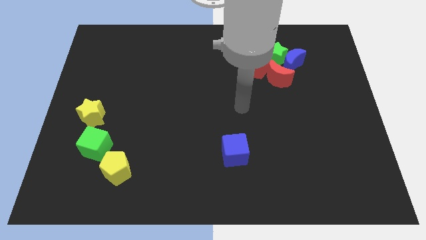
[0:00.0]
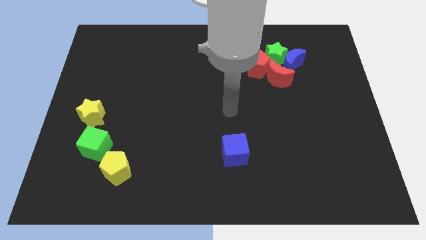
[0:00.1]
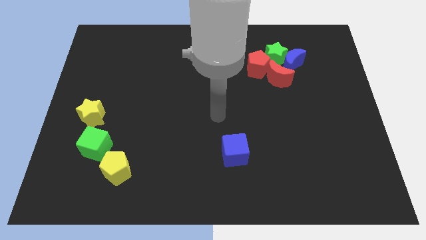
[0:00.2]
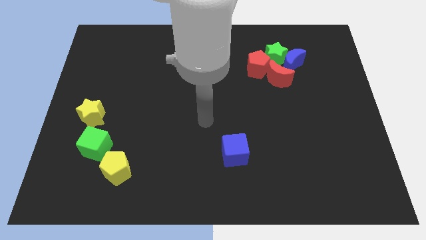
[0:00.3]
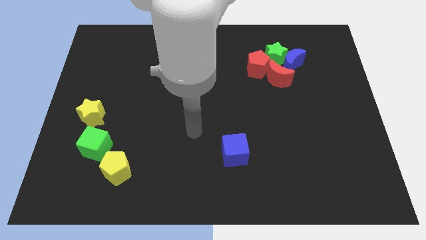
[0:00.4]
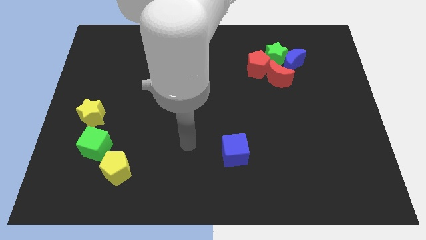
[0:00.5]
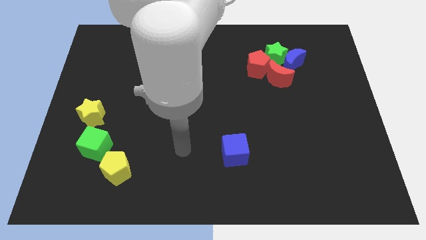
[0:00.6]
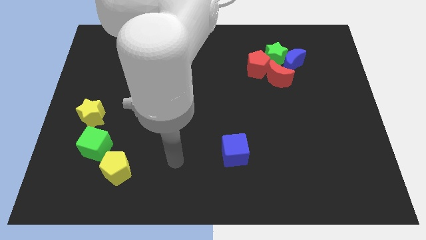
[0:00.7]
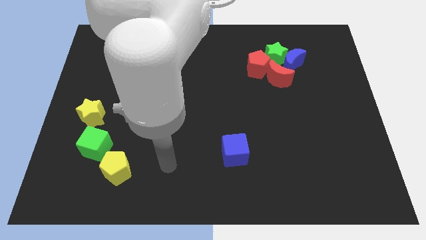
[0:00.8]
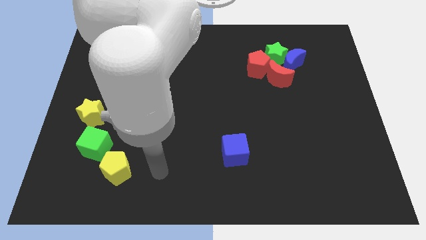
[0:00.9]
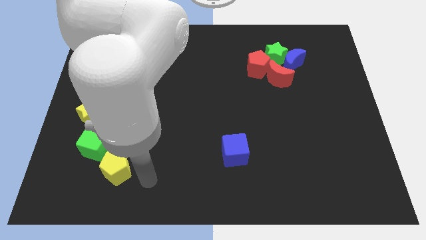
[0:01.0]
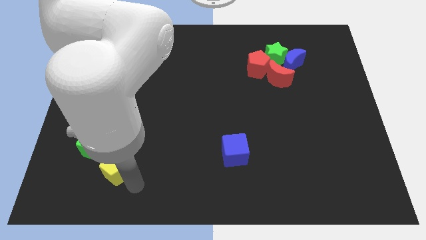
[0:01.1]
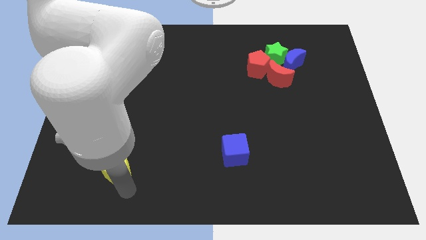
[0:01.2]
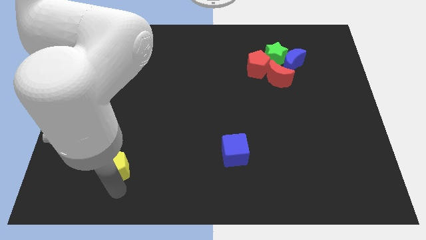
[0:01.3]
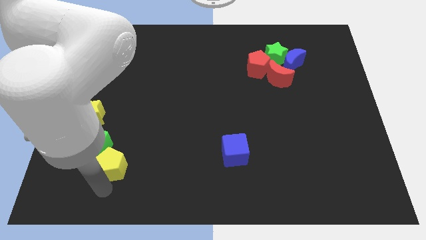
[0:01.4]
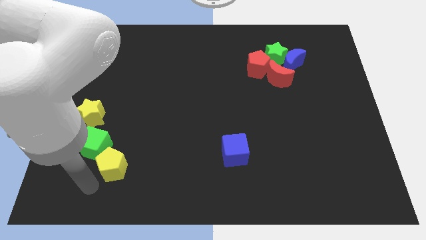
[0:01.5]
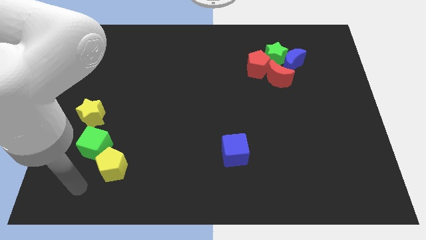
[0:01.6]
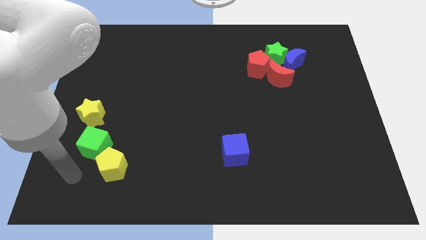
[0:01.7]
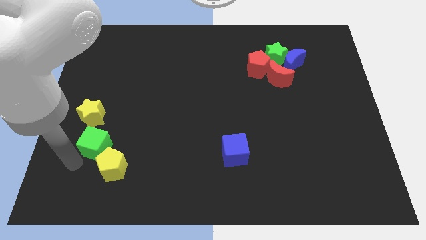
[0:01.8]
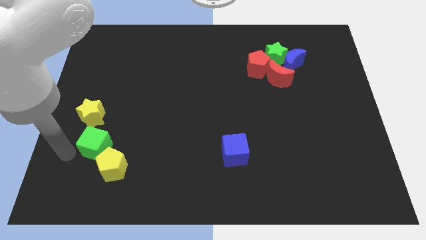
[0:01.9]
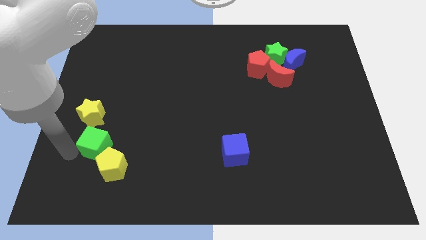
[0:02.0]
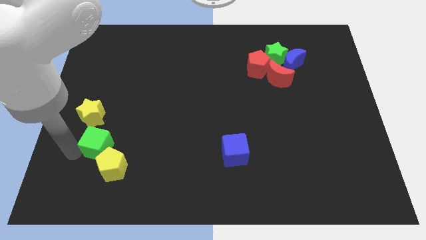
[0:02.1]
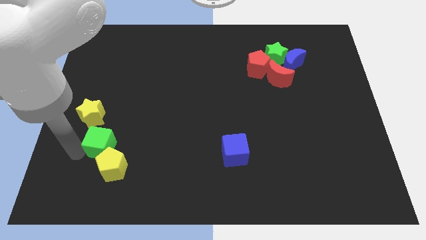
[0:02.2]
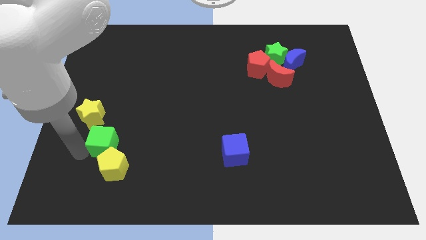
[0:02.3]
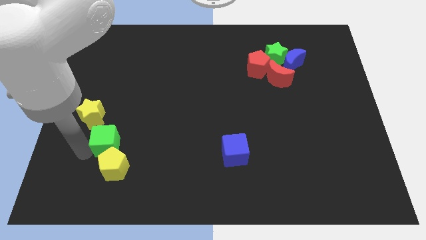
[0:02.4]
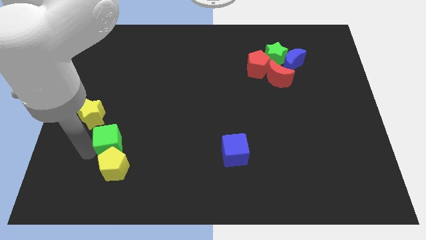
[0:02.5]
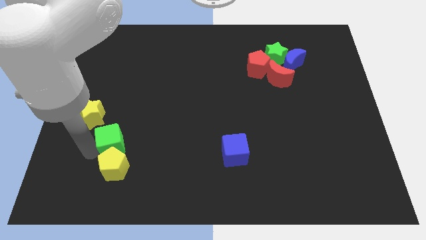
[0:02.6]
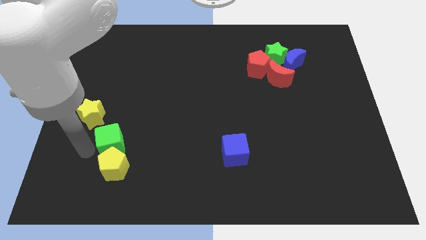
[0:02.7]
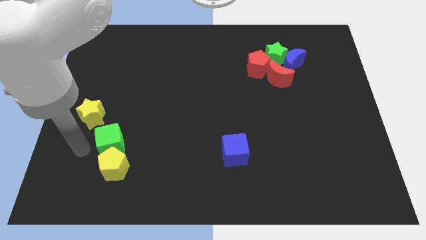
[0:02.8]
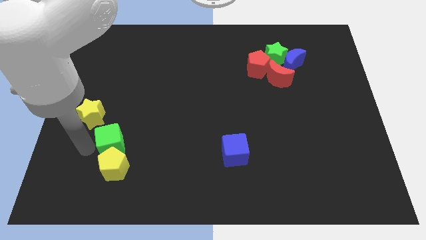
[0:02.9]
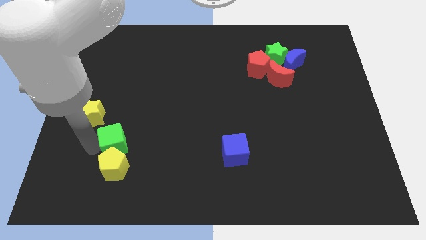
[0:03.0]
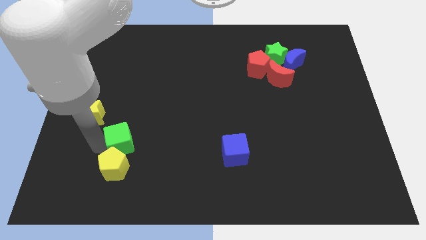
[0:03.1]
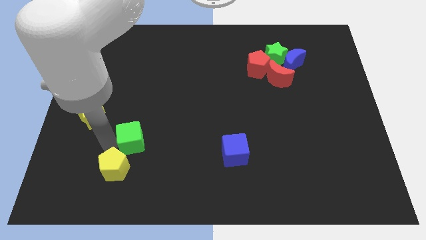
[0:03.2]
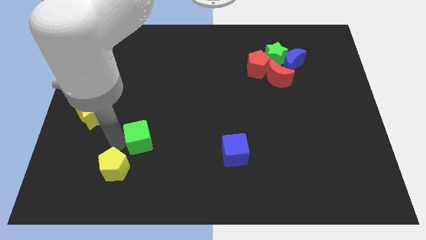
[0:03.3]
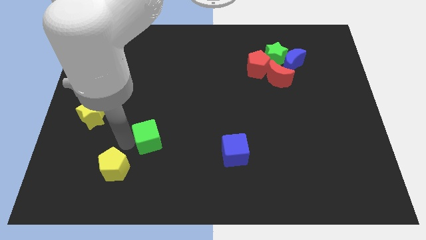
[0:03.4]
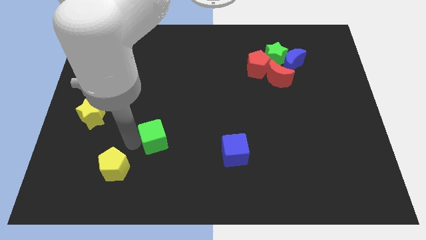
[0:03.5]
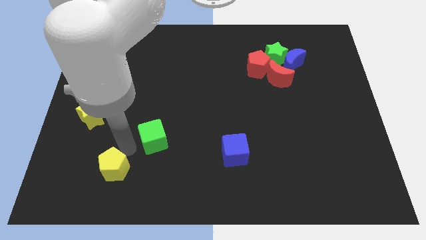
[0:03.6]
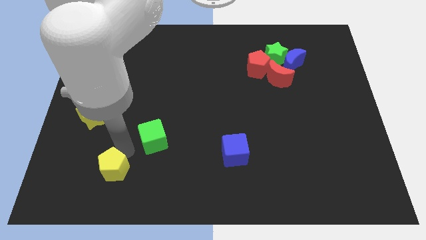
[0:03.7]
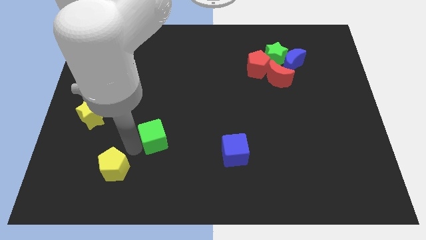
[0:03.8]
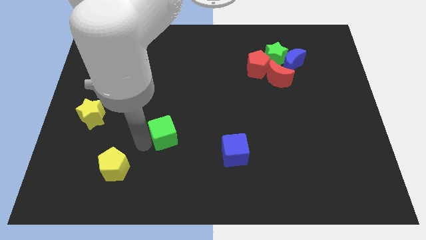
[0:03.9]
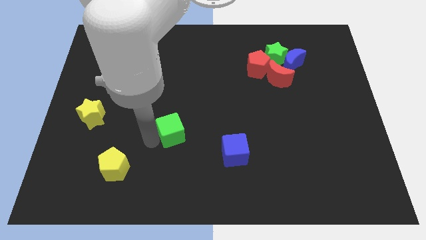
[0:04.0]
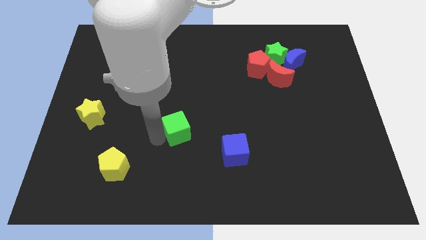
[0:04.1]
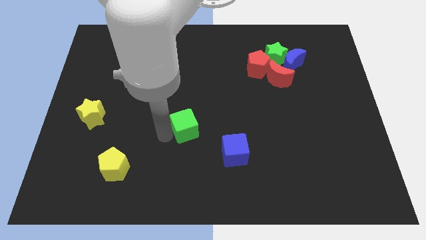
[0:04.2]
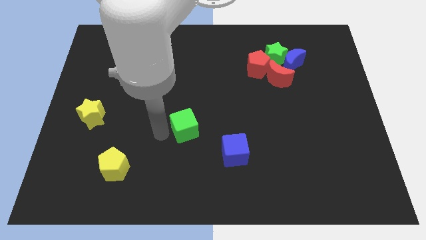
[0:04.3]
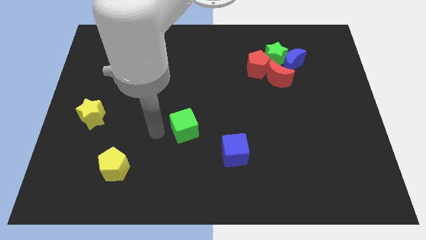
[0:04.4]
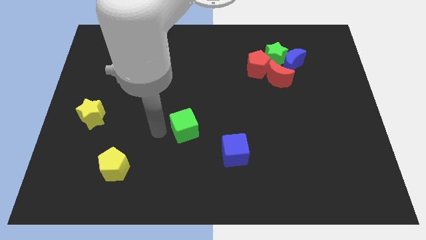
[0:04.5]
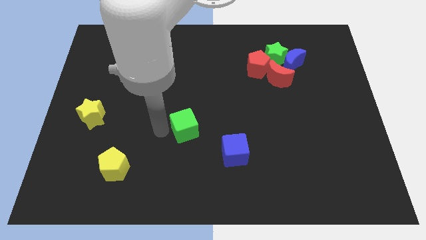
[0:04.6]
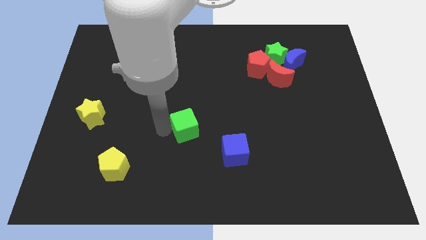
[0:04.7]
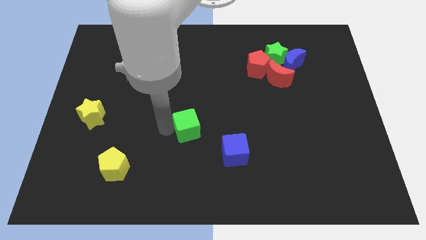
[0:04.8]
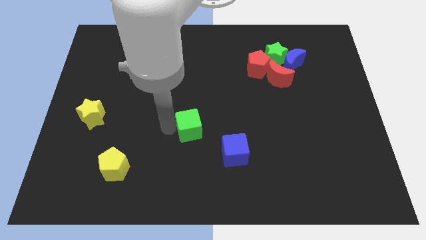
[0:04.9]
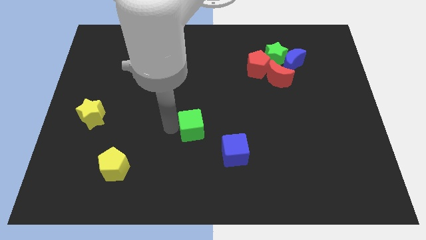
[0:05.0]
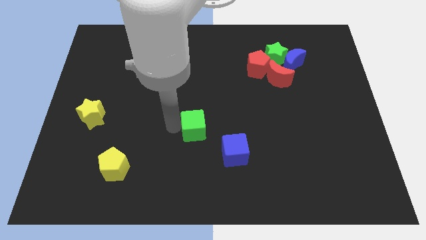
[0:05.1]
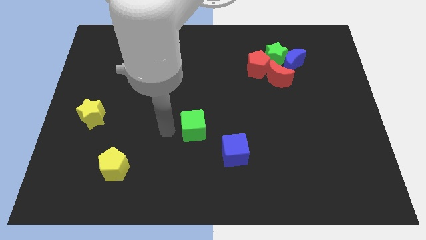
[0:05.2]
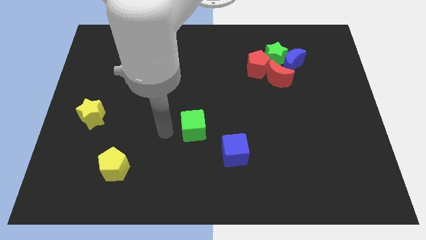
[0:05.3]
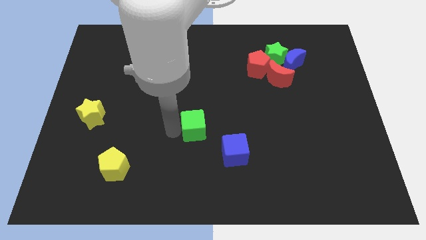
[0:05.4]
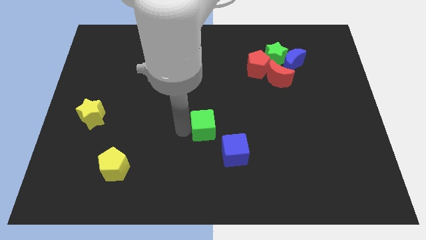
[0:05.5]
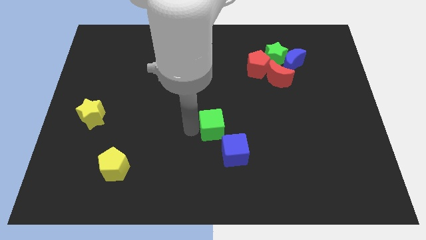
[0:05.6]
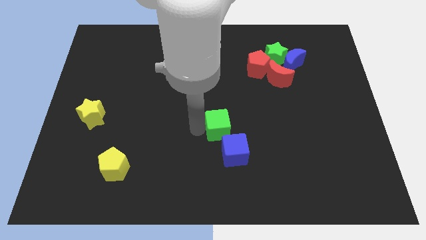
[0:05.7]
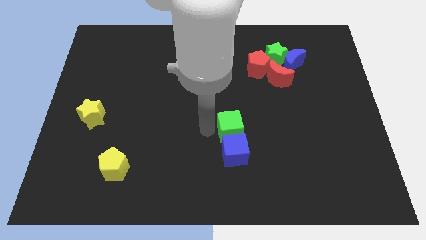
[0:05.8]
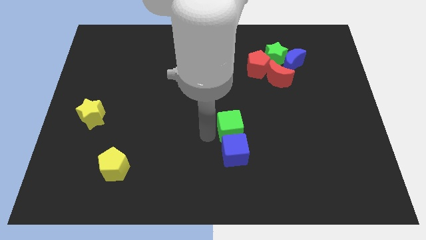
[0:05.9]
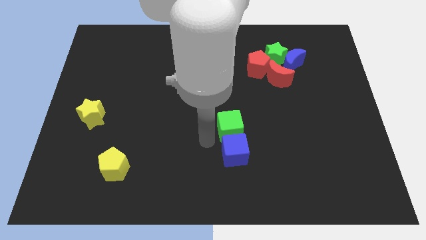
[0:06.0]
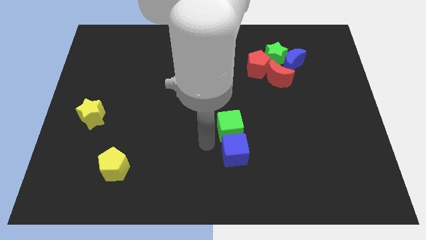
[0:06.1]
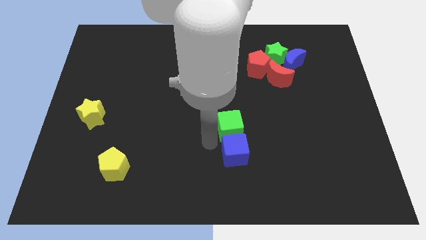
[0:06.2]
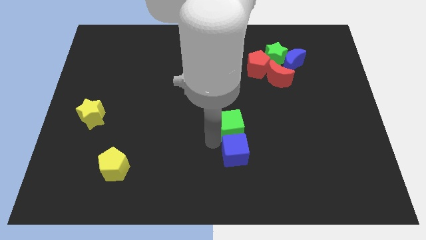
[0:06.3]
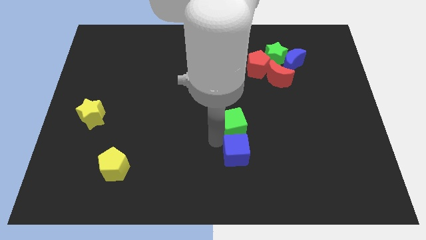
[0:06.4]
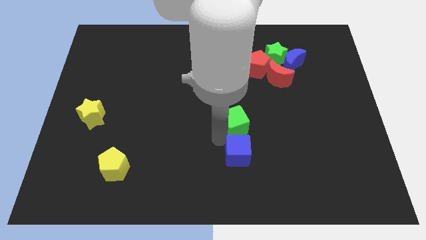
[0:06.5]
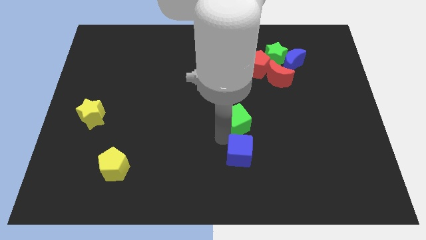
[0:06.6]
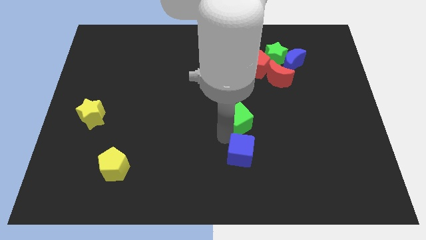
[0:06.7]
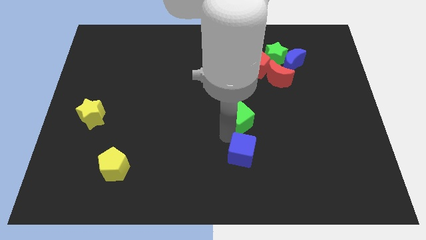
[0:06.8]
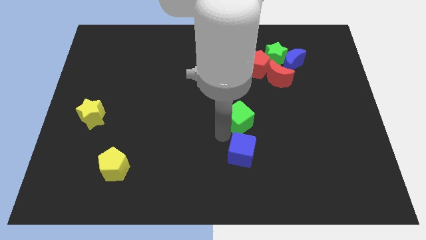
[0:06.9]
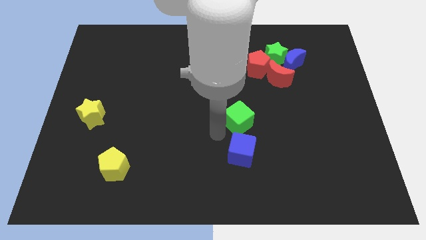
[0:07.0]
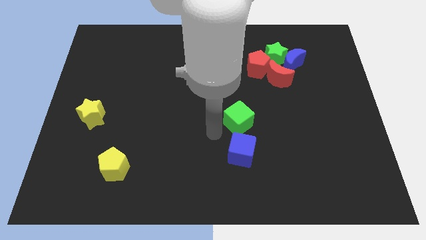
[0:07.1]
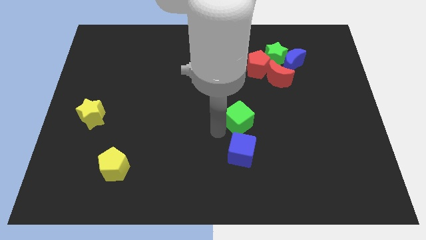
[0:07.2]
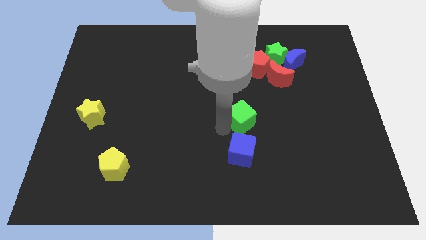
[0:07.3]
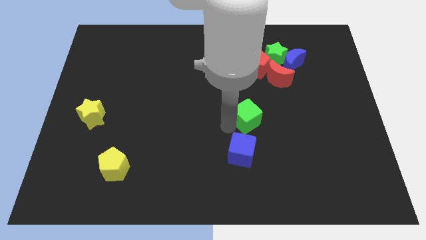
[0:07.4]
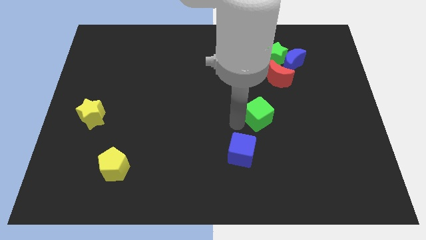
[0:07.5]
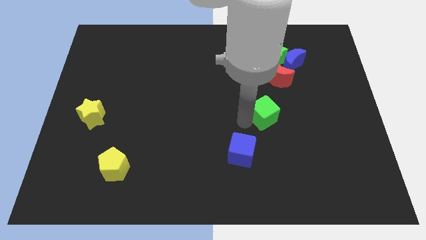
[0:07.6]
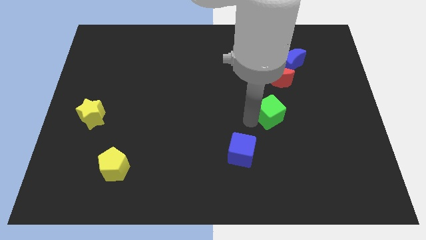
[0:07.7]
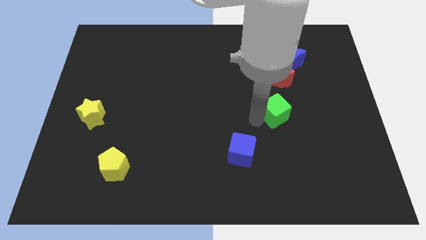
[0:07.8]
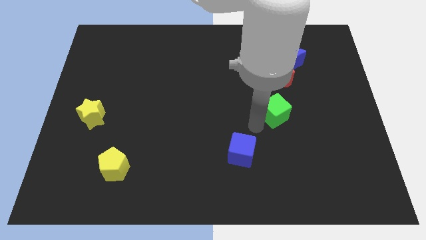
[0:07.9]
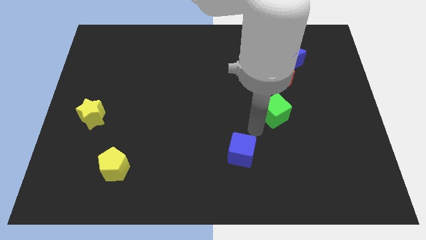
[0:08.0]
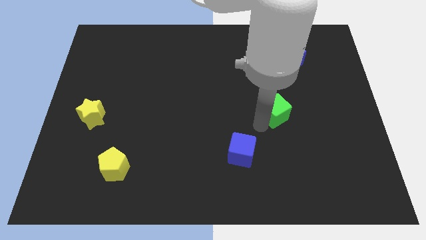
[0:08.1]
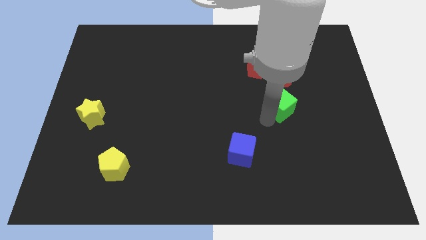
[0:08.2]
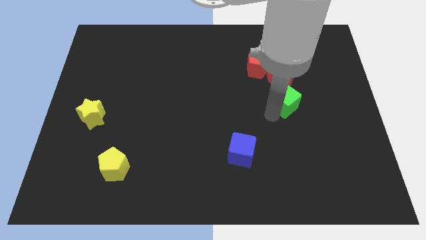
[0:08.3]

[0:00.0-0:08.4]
push the green cube to the bottom of the blue moon
